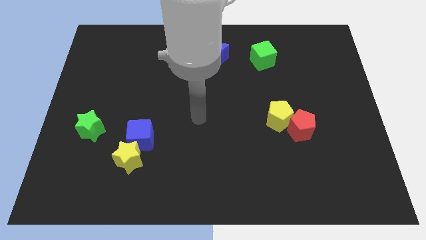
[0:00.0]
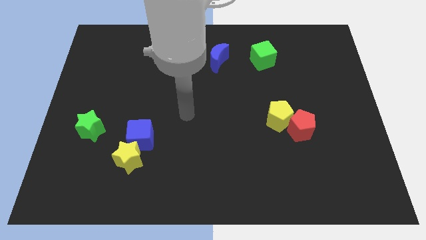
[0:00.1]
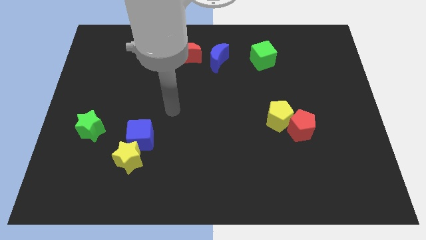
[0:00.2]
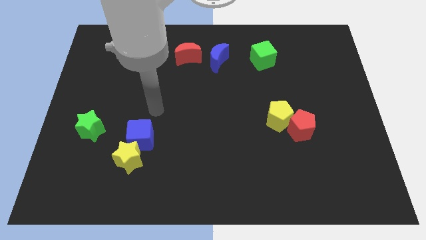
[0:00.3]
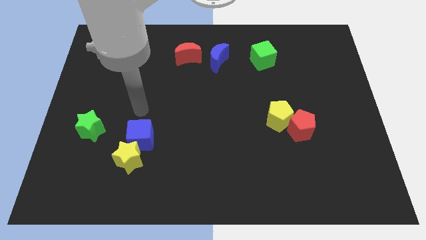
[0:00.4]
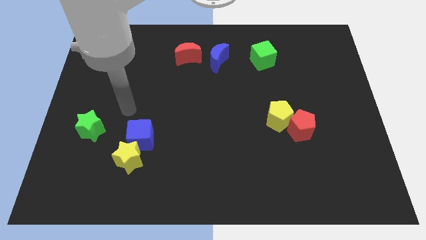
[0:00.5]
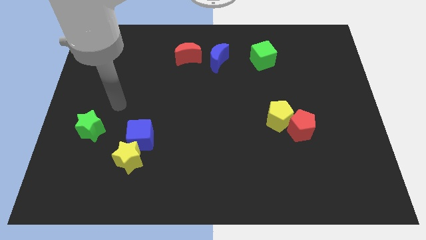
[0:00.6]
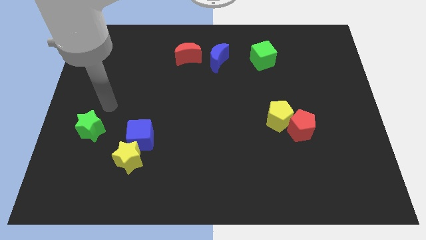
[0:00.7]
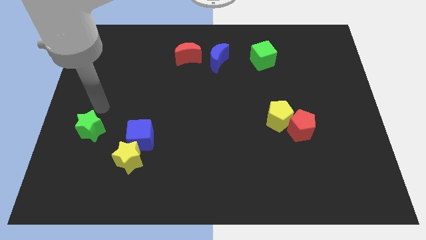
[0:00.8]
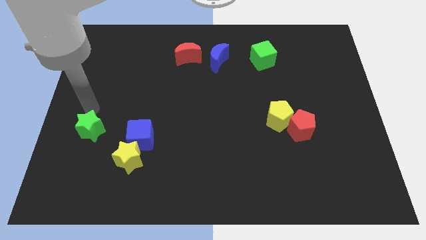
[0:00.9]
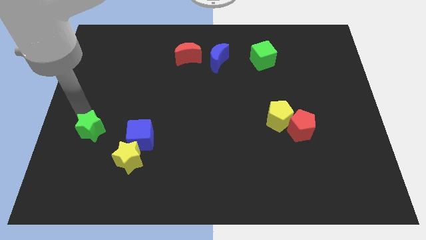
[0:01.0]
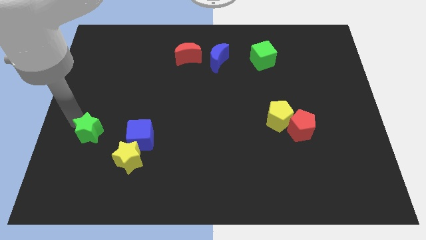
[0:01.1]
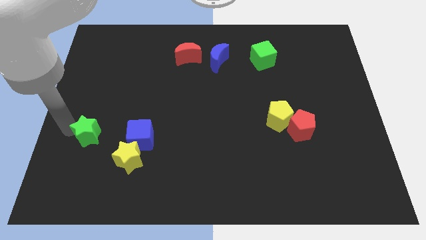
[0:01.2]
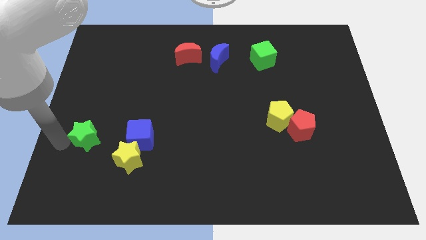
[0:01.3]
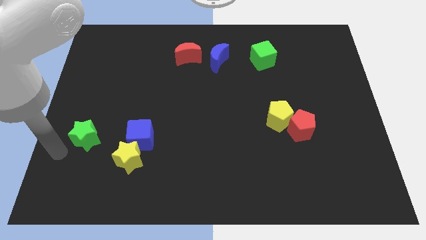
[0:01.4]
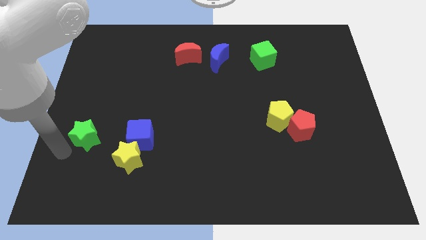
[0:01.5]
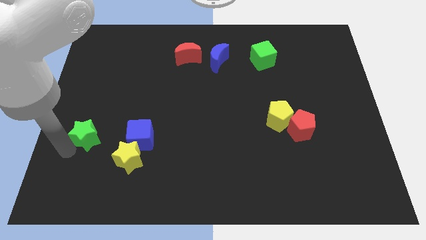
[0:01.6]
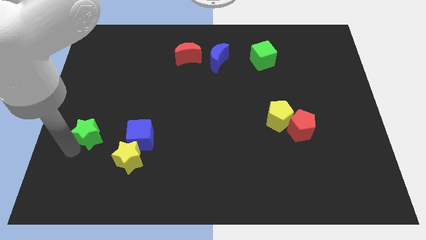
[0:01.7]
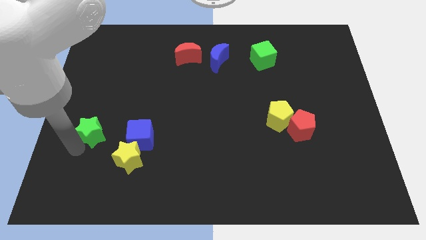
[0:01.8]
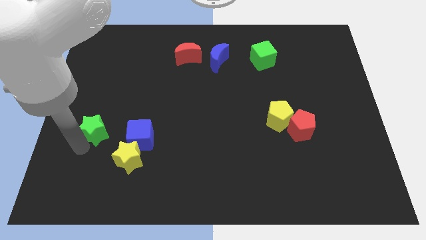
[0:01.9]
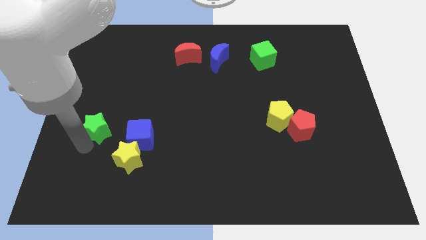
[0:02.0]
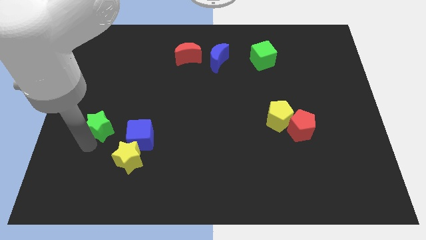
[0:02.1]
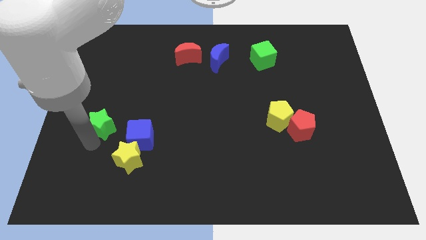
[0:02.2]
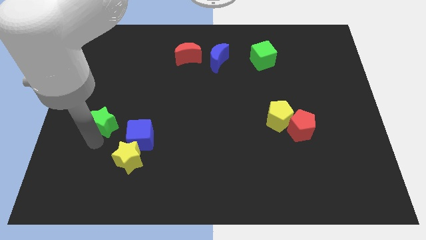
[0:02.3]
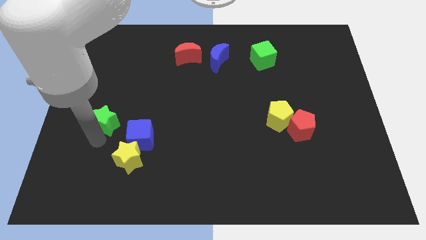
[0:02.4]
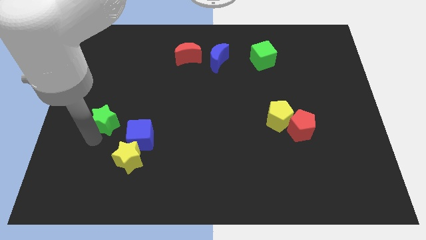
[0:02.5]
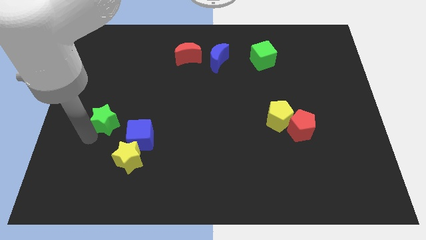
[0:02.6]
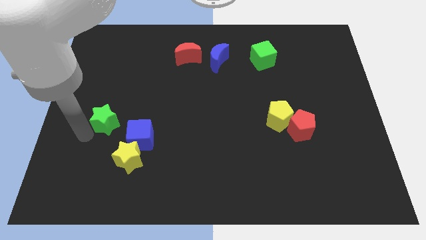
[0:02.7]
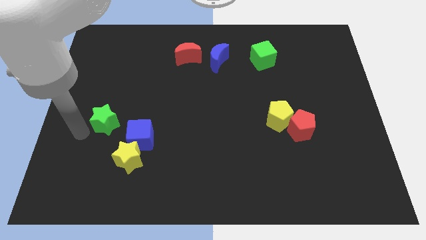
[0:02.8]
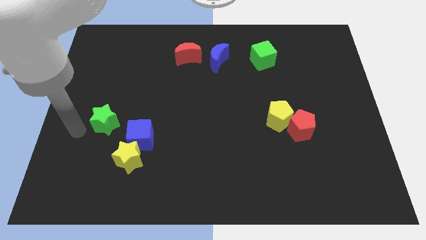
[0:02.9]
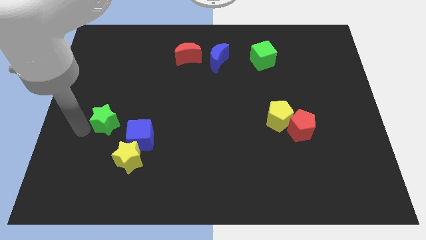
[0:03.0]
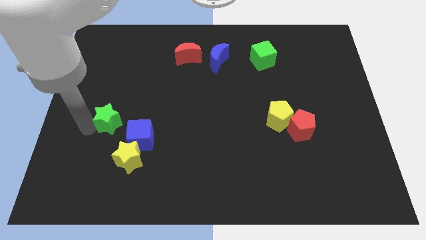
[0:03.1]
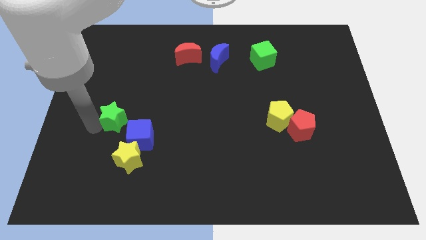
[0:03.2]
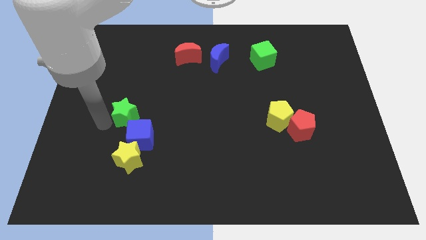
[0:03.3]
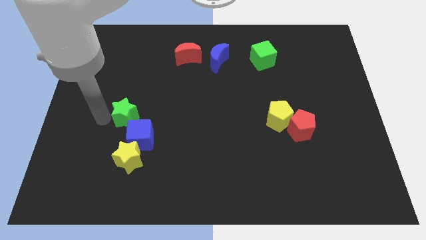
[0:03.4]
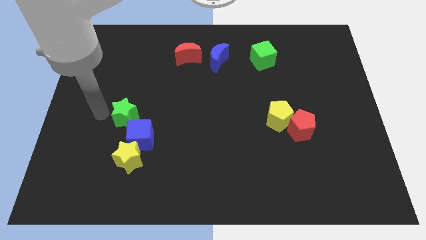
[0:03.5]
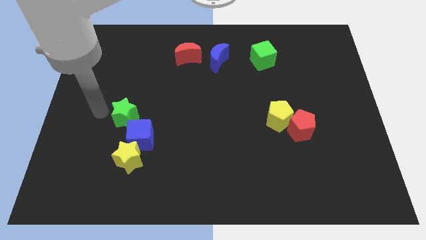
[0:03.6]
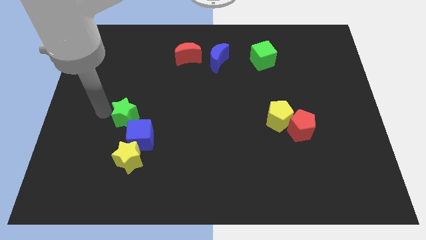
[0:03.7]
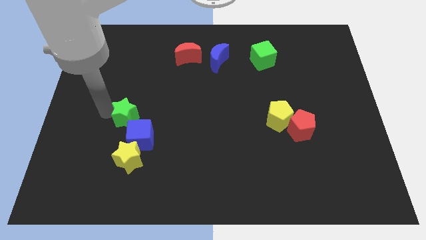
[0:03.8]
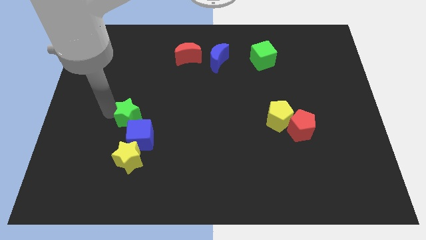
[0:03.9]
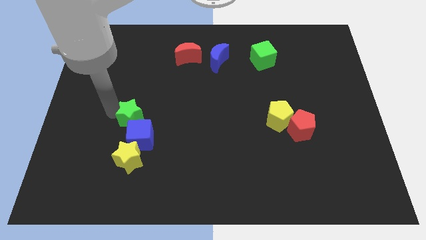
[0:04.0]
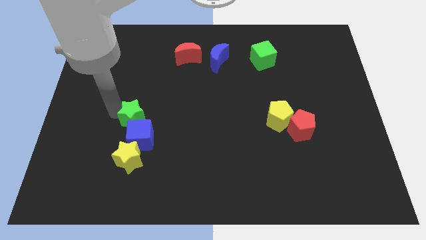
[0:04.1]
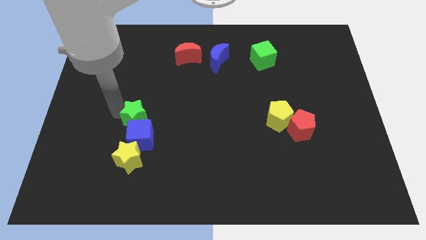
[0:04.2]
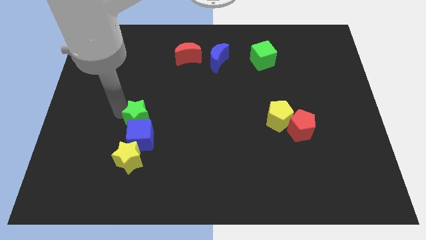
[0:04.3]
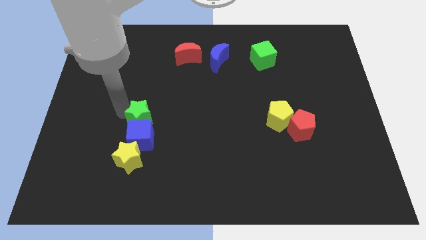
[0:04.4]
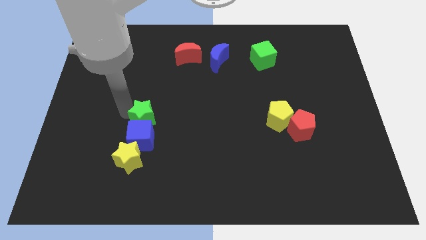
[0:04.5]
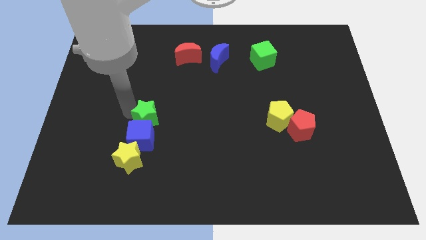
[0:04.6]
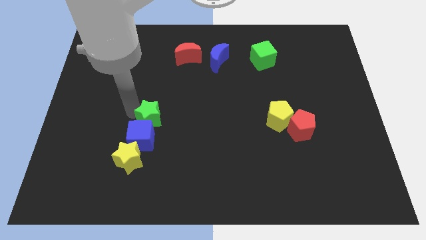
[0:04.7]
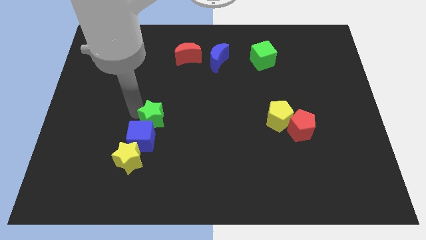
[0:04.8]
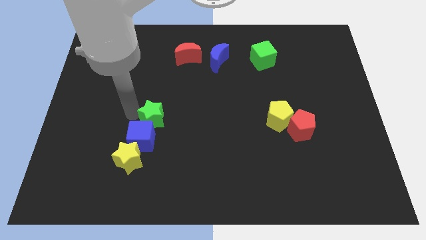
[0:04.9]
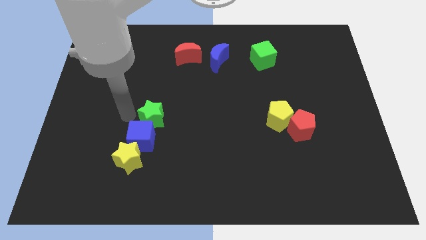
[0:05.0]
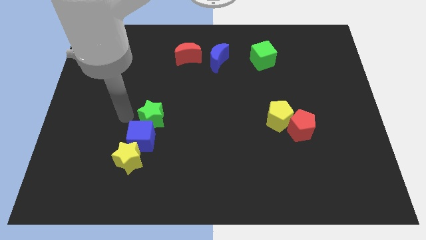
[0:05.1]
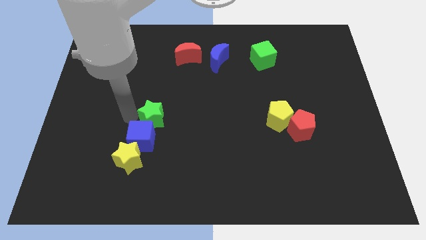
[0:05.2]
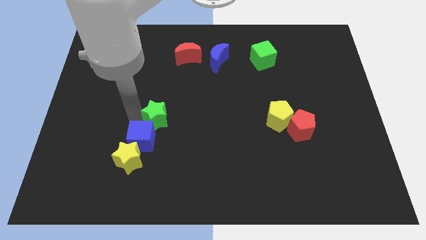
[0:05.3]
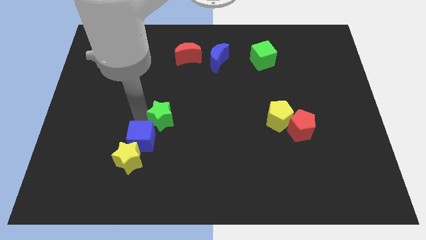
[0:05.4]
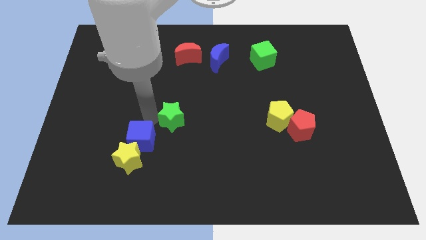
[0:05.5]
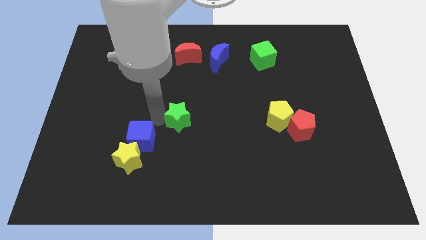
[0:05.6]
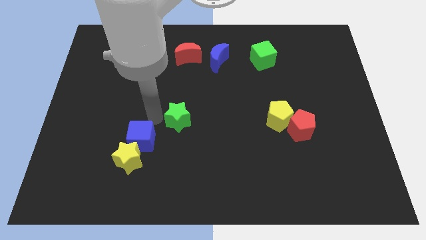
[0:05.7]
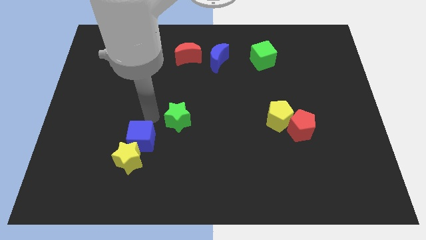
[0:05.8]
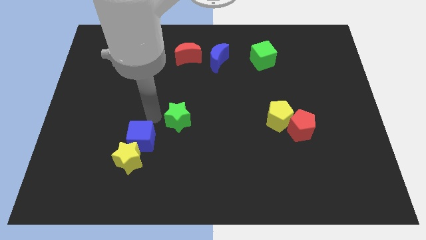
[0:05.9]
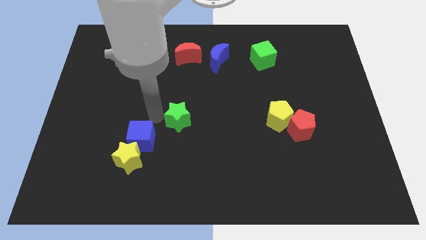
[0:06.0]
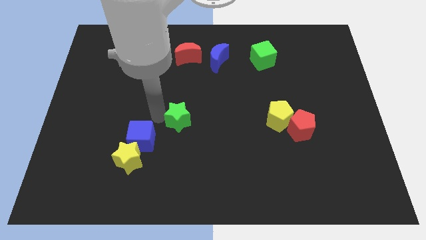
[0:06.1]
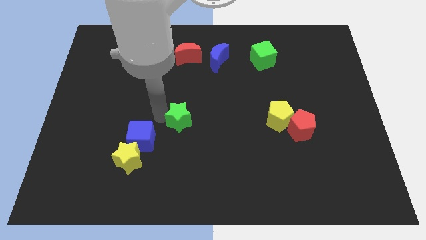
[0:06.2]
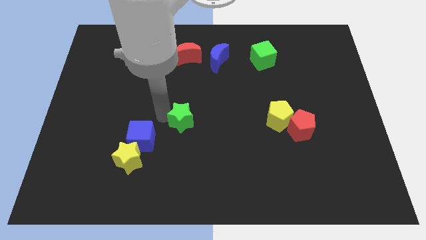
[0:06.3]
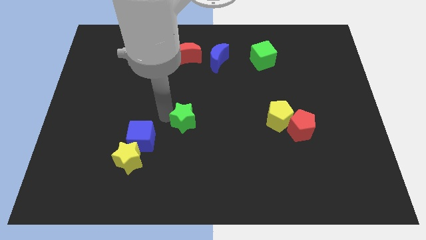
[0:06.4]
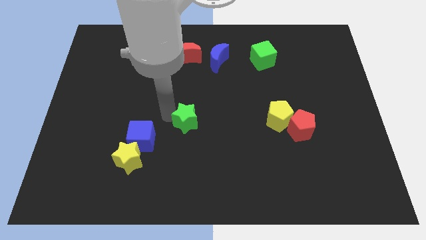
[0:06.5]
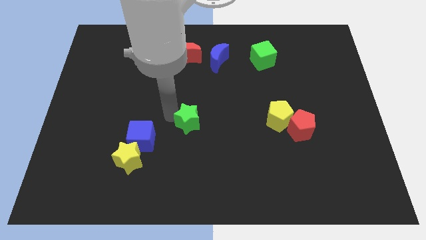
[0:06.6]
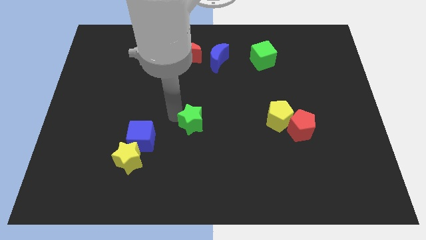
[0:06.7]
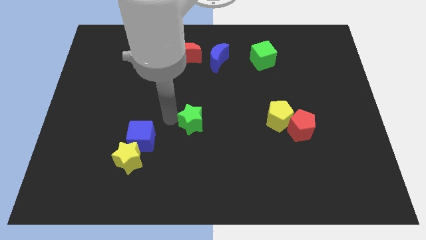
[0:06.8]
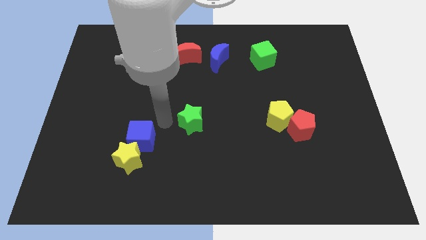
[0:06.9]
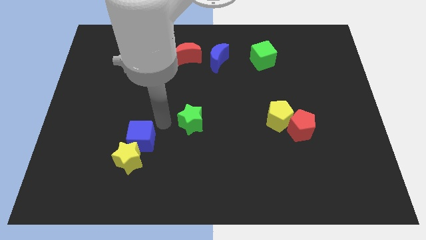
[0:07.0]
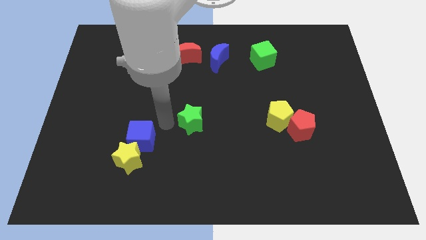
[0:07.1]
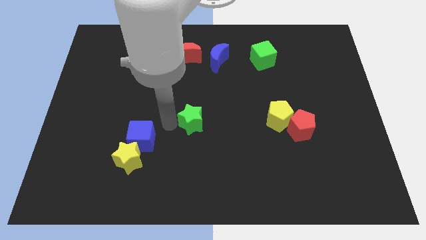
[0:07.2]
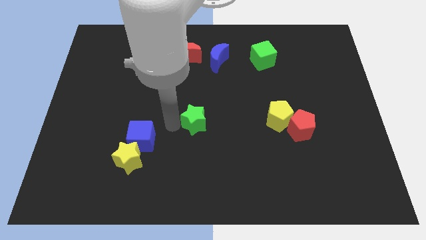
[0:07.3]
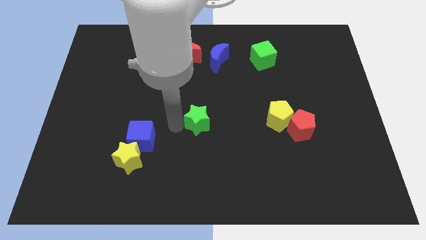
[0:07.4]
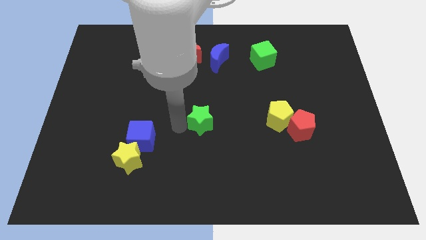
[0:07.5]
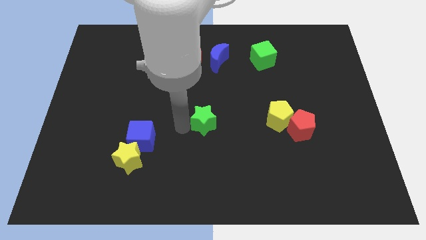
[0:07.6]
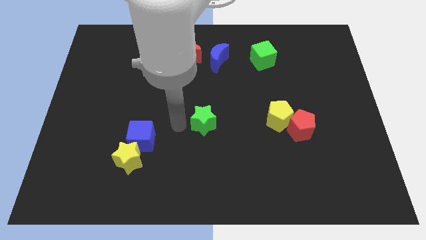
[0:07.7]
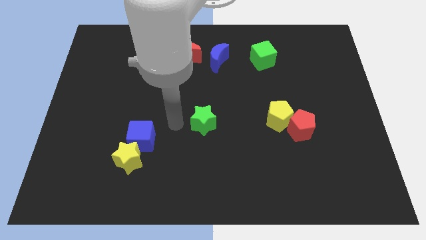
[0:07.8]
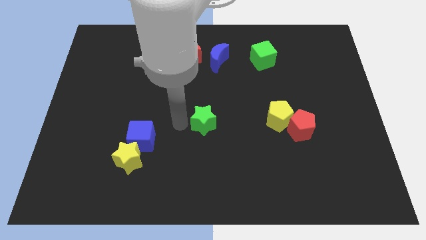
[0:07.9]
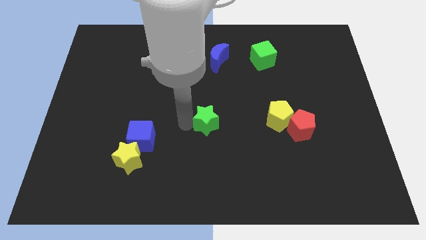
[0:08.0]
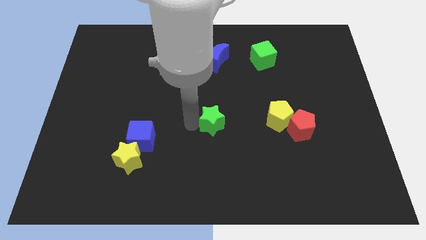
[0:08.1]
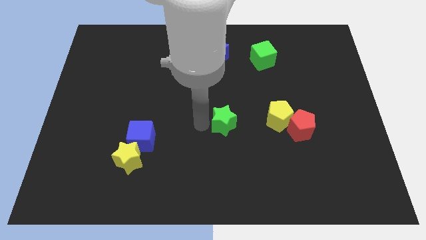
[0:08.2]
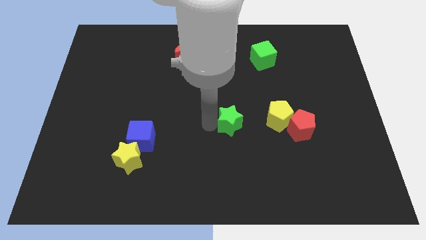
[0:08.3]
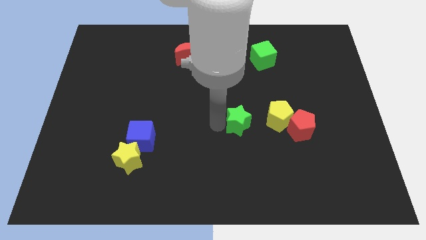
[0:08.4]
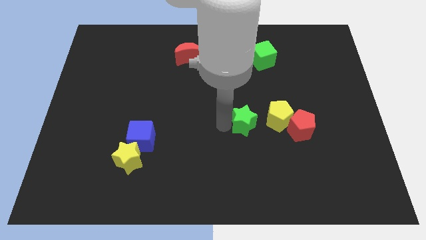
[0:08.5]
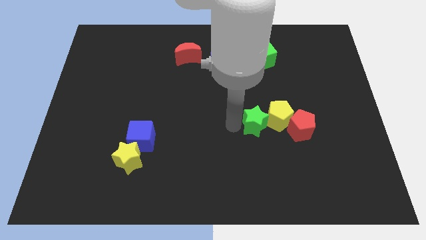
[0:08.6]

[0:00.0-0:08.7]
slide the green star next to the yellow pentagon
